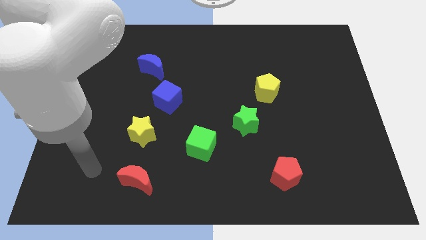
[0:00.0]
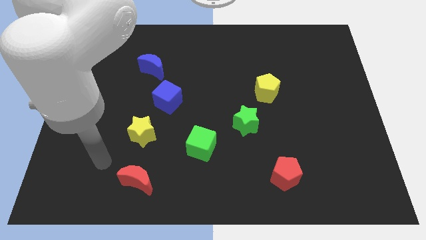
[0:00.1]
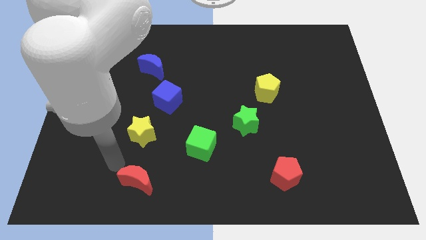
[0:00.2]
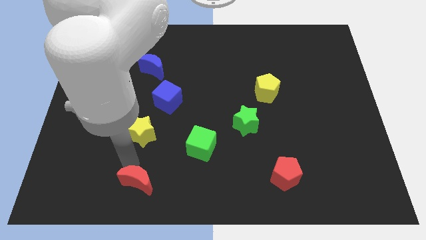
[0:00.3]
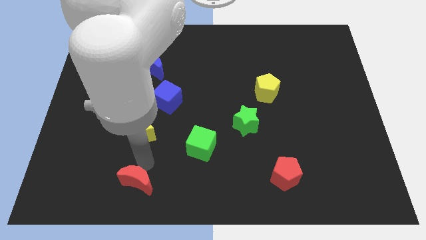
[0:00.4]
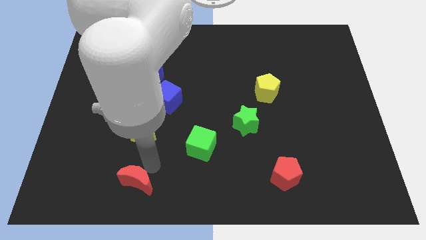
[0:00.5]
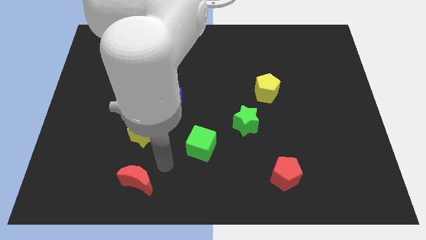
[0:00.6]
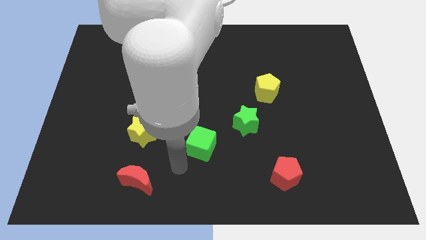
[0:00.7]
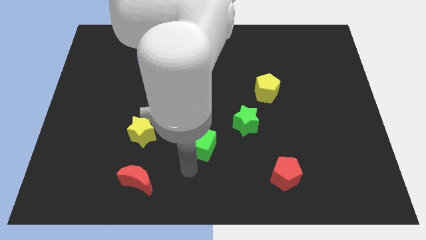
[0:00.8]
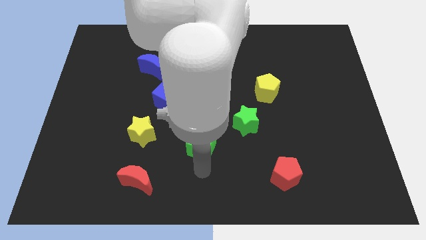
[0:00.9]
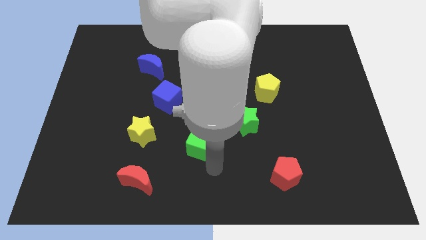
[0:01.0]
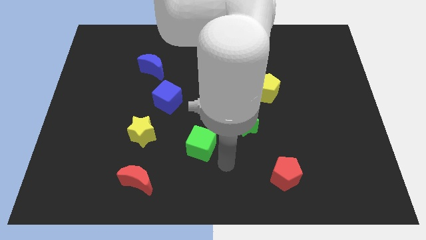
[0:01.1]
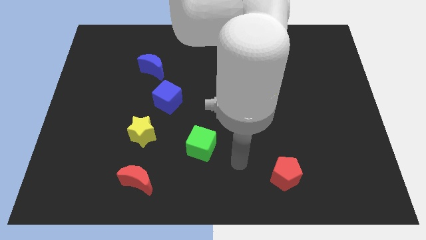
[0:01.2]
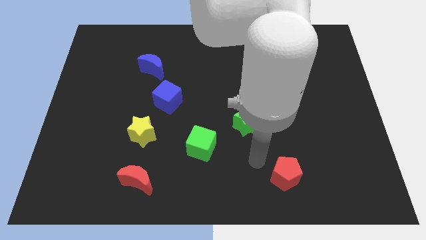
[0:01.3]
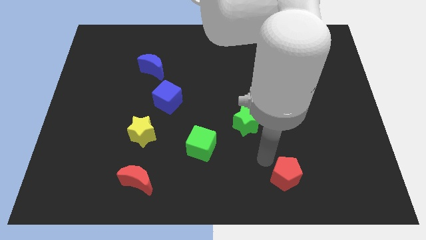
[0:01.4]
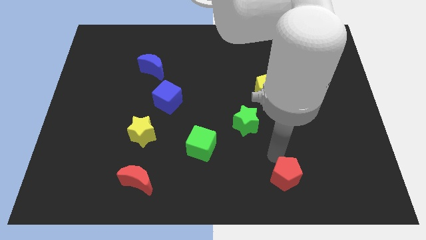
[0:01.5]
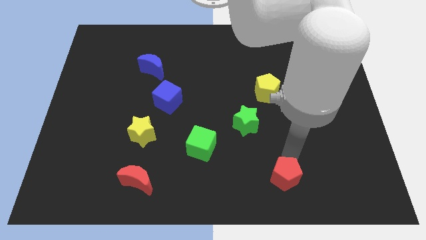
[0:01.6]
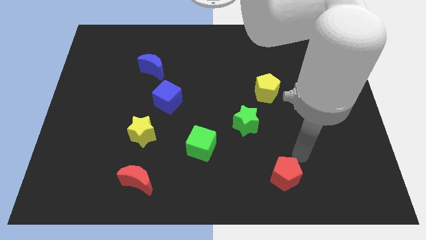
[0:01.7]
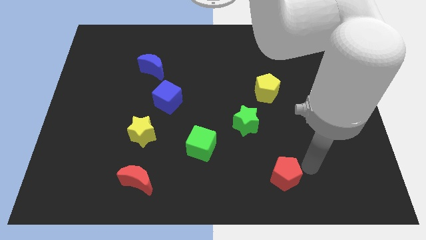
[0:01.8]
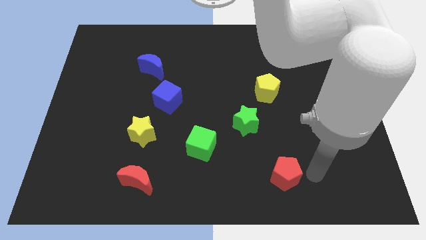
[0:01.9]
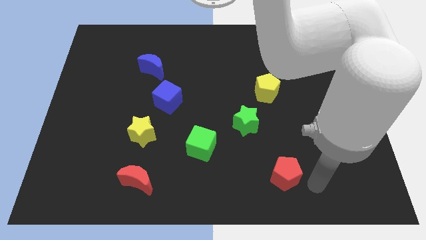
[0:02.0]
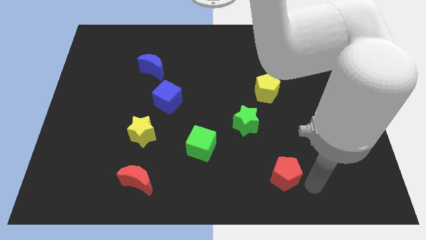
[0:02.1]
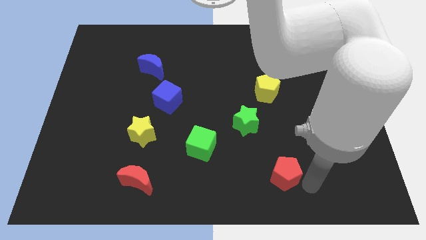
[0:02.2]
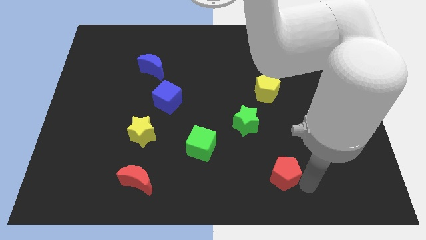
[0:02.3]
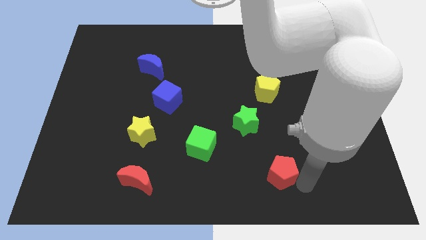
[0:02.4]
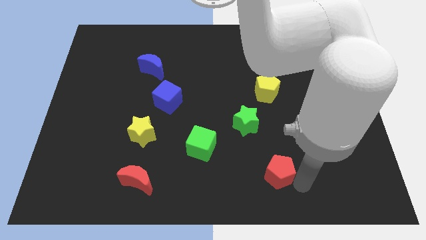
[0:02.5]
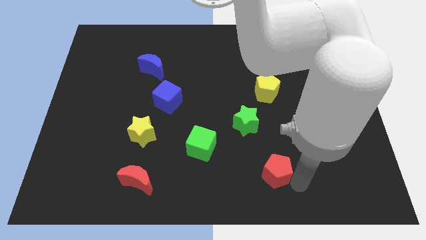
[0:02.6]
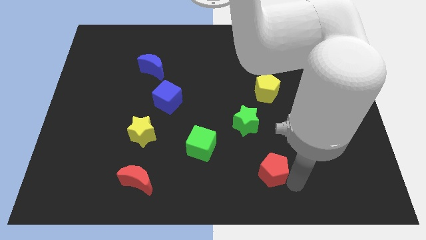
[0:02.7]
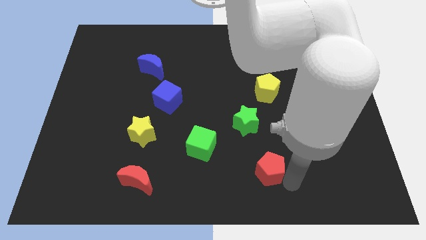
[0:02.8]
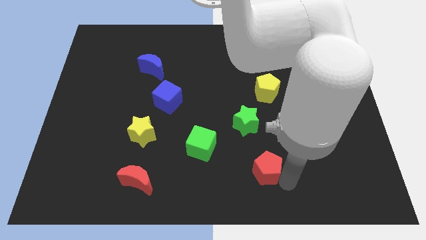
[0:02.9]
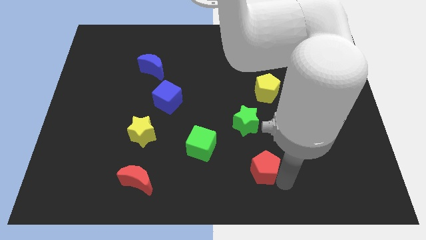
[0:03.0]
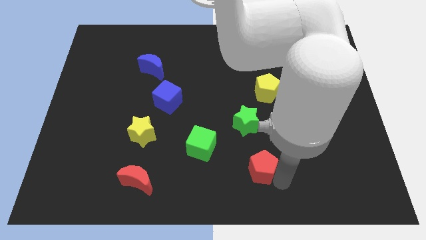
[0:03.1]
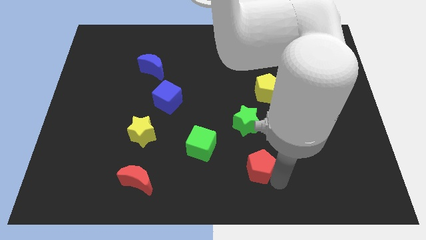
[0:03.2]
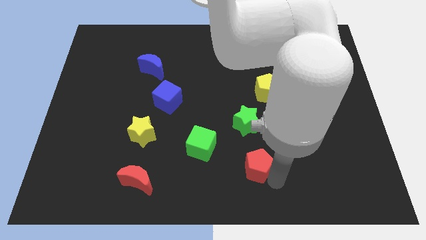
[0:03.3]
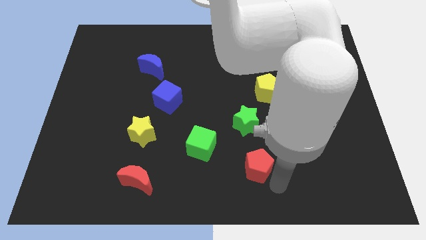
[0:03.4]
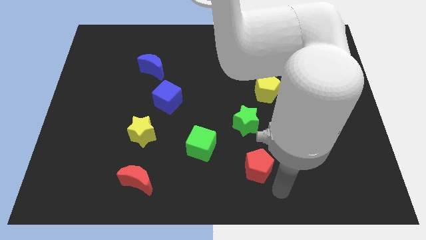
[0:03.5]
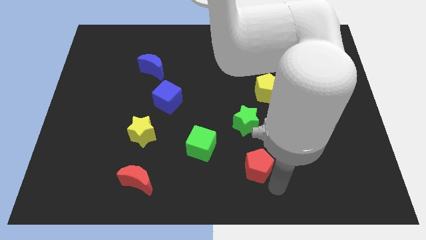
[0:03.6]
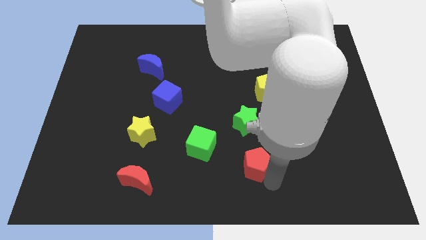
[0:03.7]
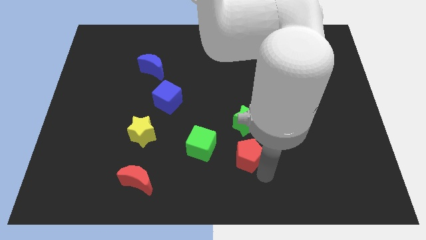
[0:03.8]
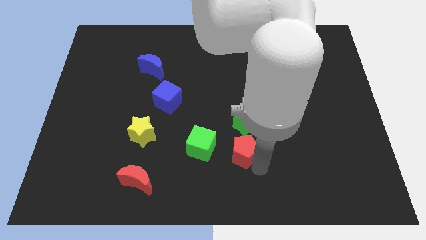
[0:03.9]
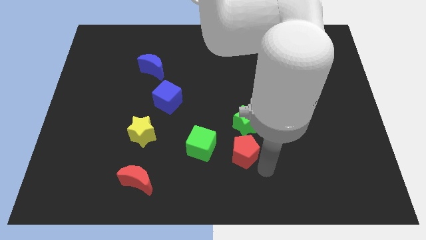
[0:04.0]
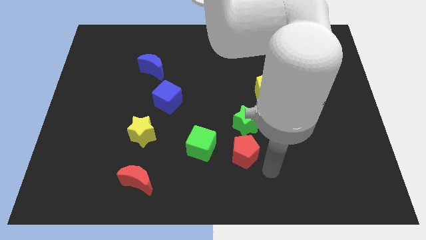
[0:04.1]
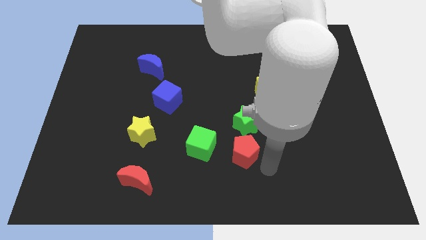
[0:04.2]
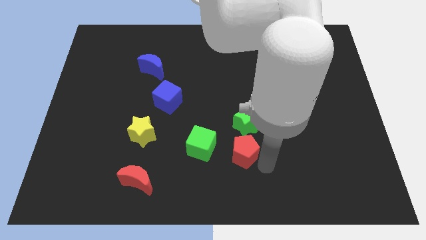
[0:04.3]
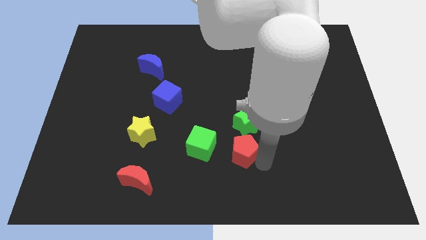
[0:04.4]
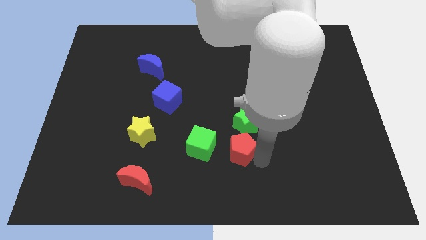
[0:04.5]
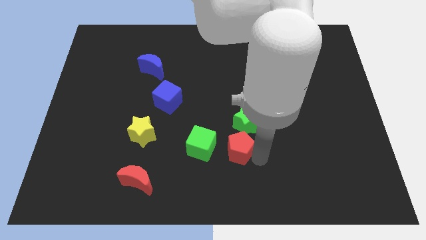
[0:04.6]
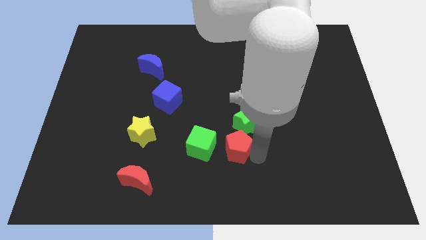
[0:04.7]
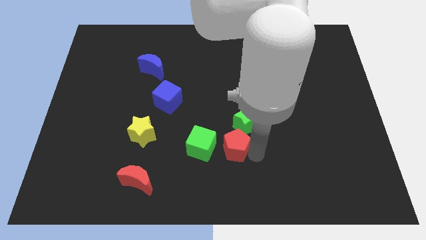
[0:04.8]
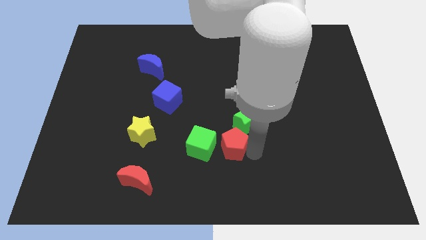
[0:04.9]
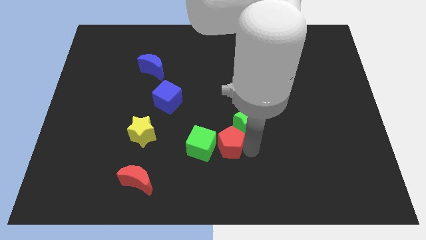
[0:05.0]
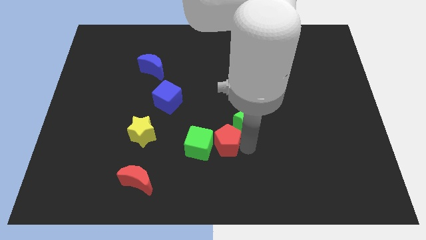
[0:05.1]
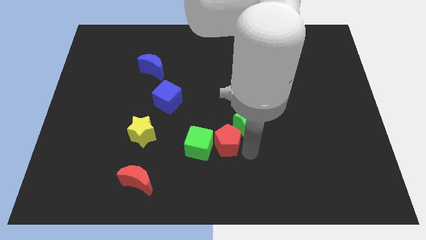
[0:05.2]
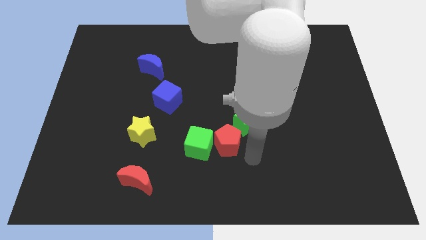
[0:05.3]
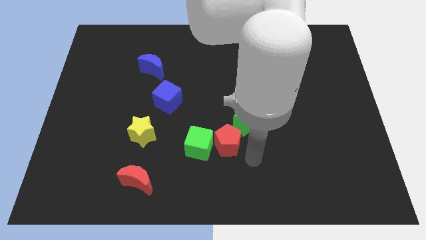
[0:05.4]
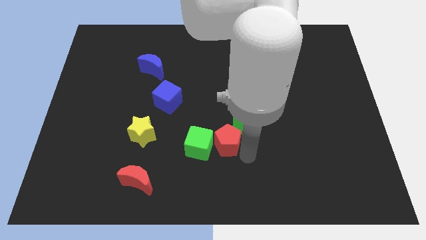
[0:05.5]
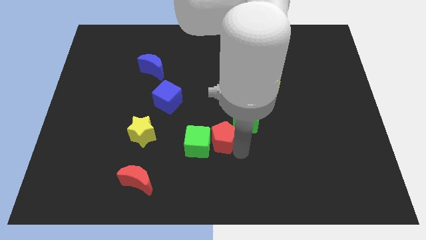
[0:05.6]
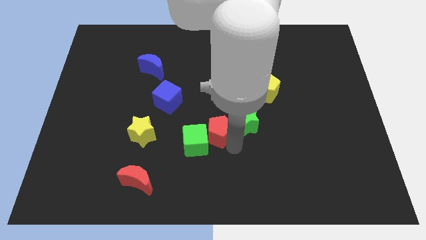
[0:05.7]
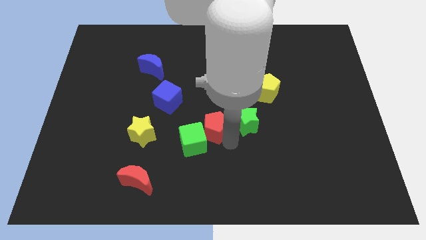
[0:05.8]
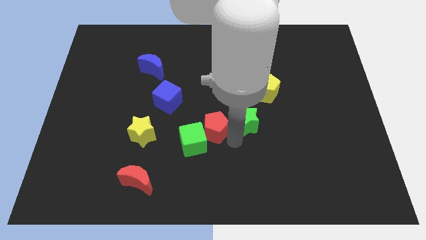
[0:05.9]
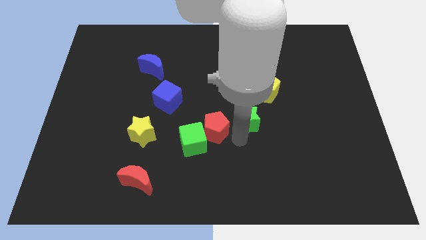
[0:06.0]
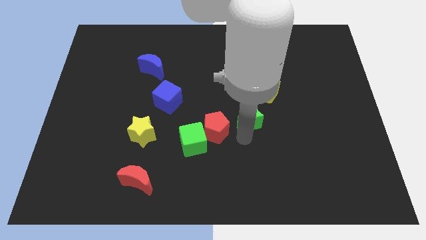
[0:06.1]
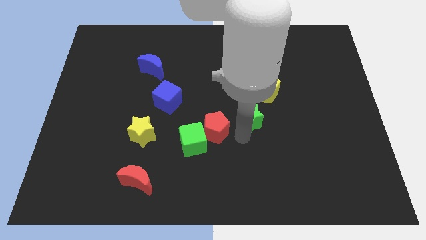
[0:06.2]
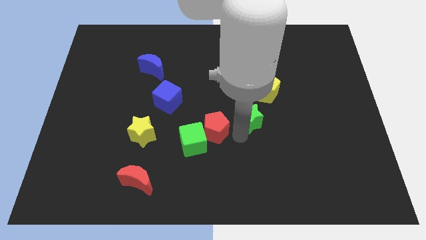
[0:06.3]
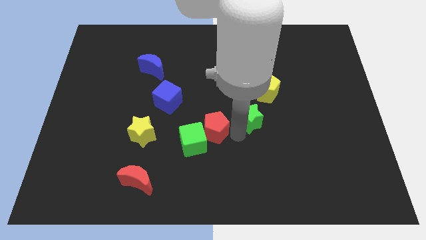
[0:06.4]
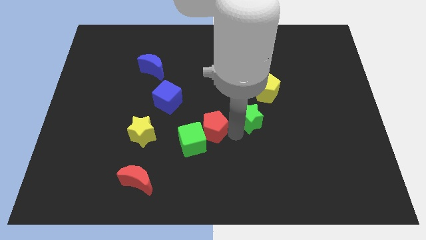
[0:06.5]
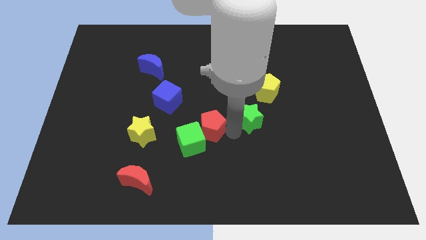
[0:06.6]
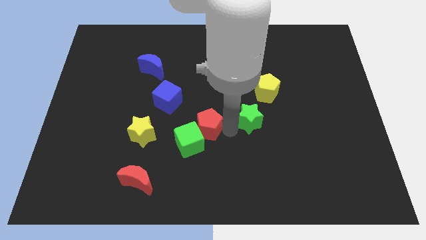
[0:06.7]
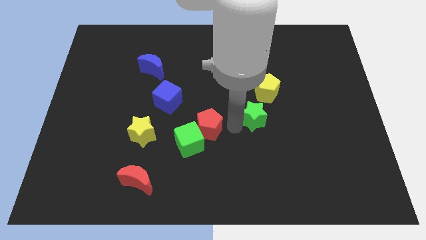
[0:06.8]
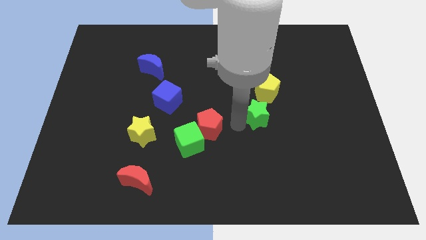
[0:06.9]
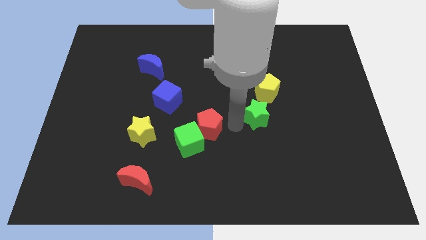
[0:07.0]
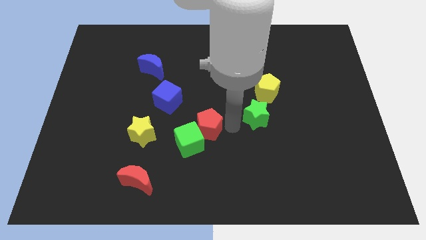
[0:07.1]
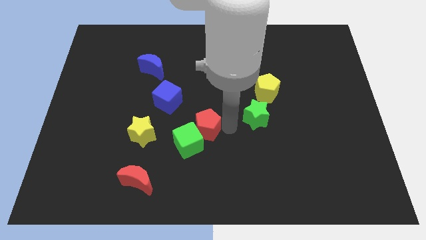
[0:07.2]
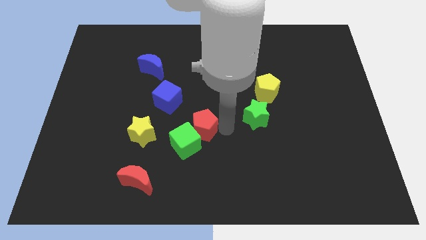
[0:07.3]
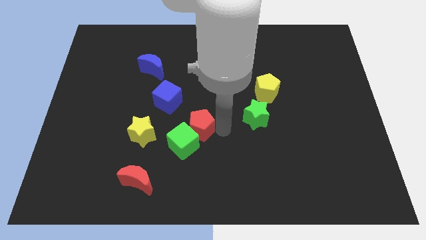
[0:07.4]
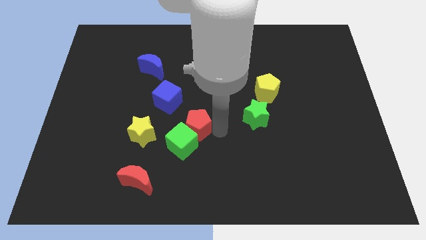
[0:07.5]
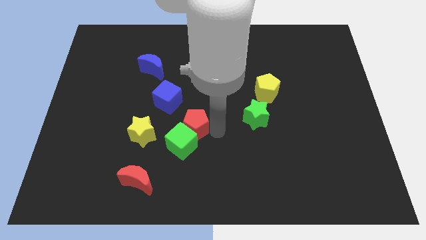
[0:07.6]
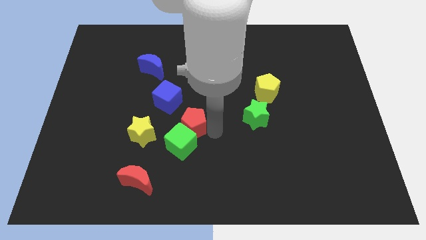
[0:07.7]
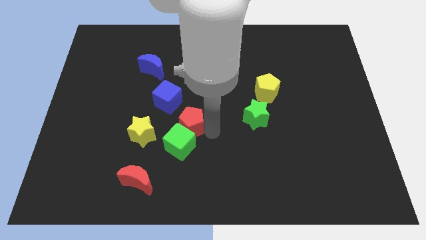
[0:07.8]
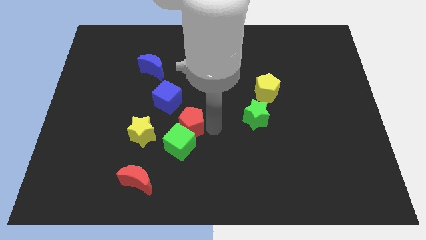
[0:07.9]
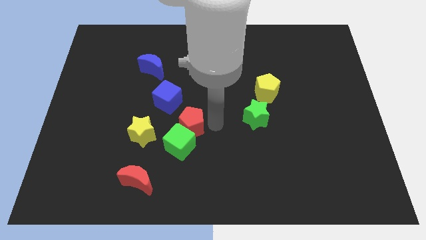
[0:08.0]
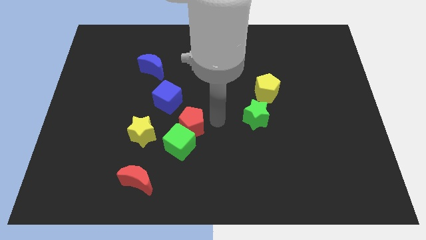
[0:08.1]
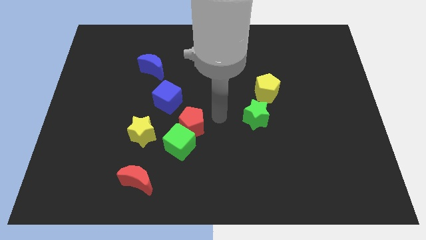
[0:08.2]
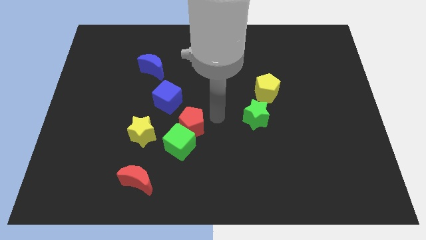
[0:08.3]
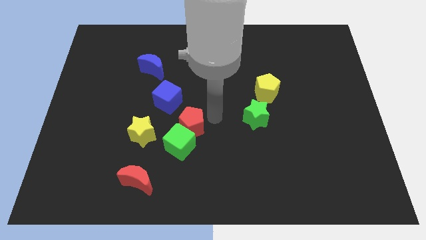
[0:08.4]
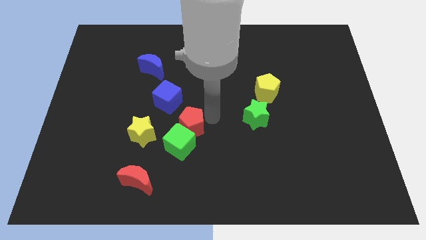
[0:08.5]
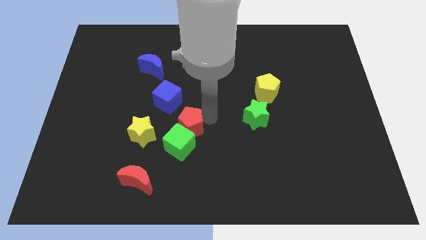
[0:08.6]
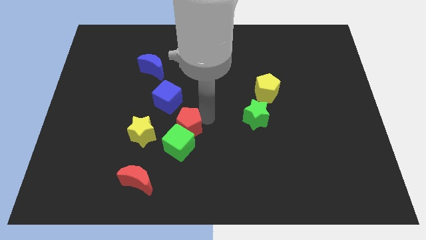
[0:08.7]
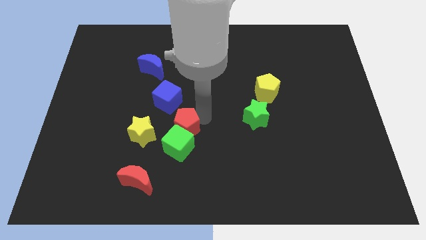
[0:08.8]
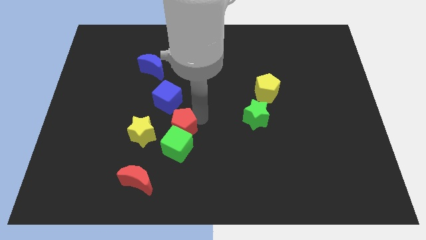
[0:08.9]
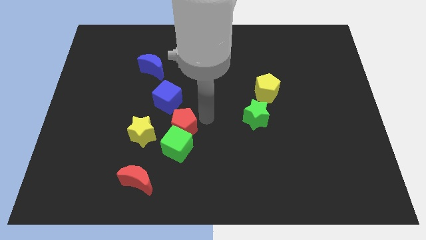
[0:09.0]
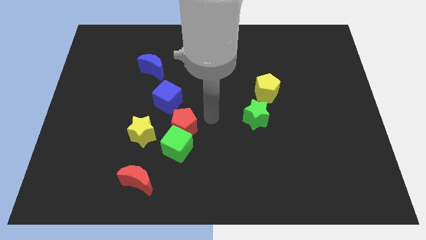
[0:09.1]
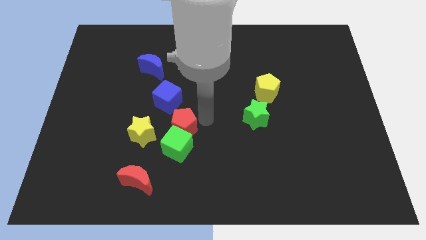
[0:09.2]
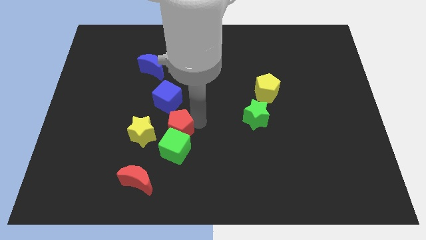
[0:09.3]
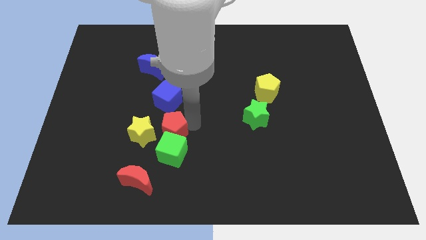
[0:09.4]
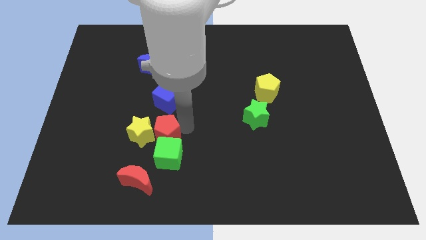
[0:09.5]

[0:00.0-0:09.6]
move the red pentagon close to the yellow star
